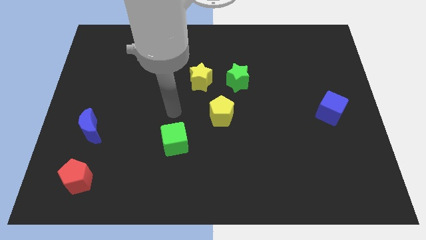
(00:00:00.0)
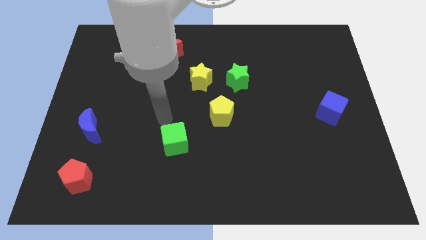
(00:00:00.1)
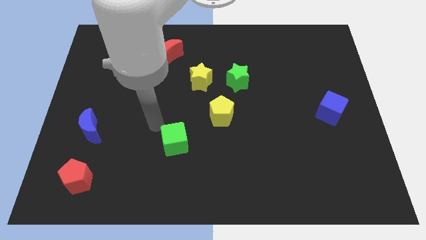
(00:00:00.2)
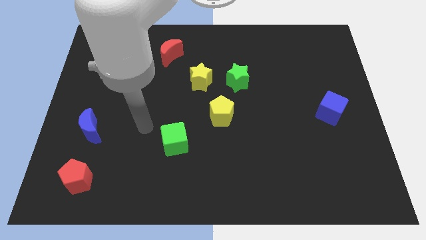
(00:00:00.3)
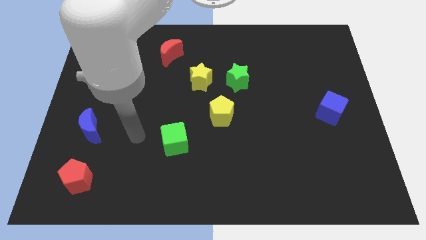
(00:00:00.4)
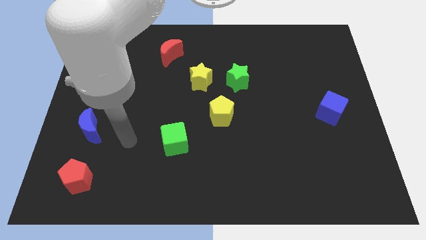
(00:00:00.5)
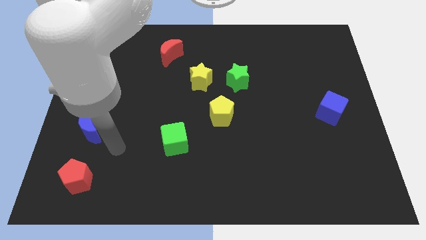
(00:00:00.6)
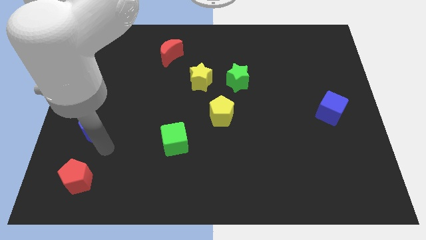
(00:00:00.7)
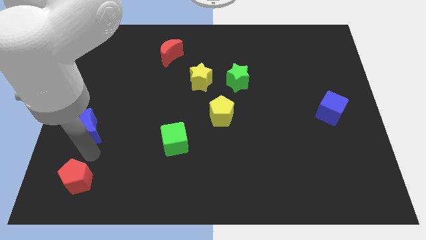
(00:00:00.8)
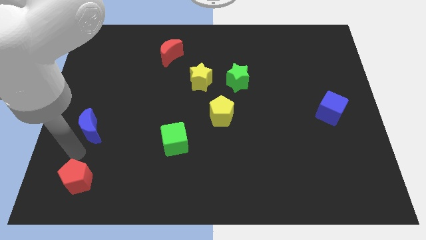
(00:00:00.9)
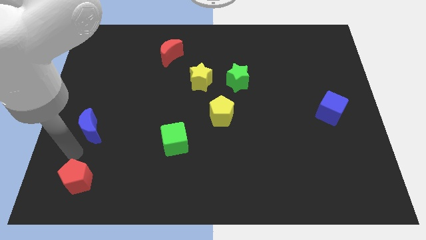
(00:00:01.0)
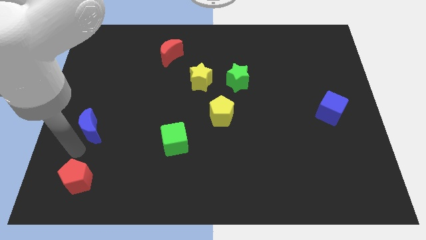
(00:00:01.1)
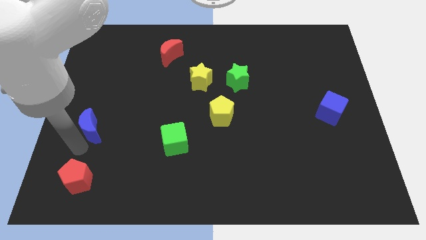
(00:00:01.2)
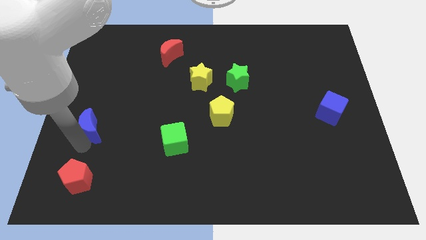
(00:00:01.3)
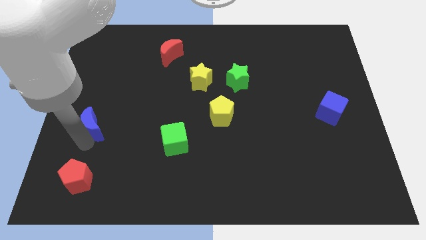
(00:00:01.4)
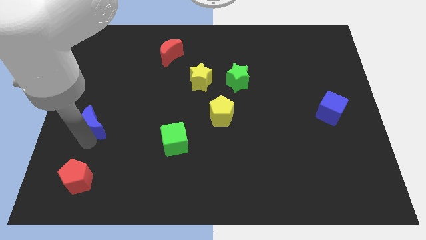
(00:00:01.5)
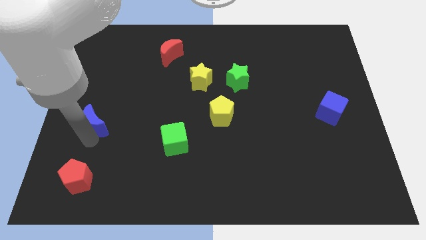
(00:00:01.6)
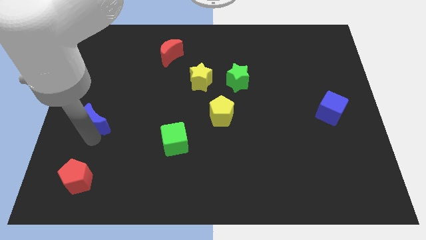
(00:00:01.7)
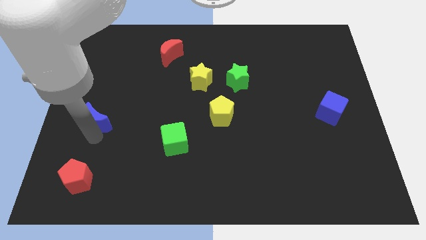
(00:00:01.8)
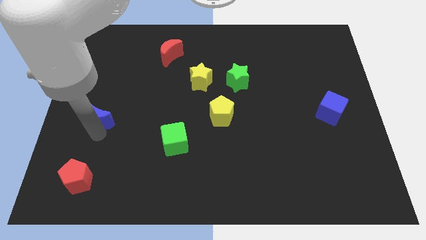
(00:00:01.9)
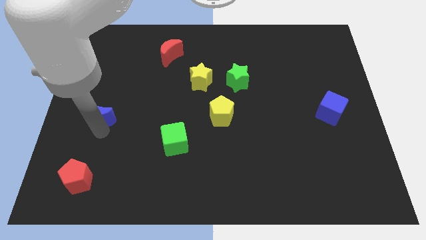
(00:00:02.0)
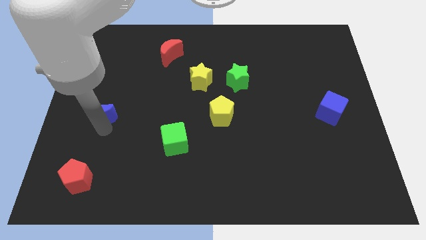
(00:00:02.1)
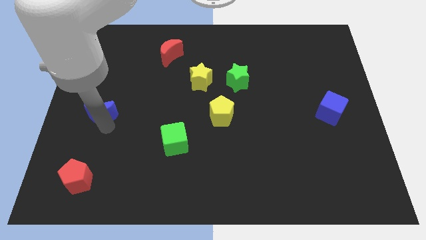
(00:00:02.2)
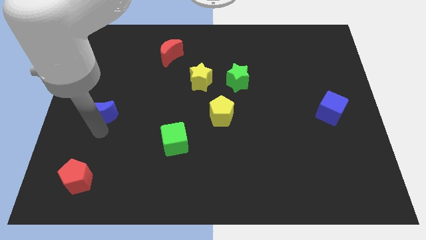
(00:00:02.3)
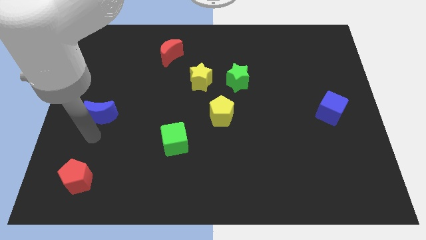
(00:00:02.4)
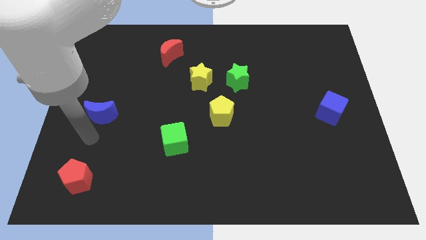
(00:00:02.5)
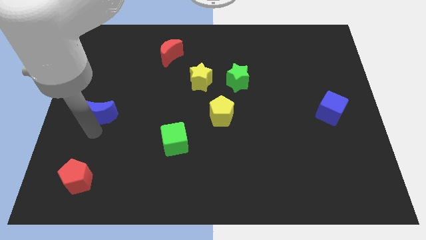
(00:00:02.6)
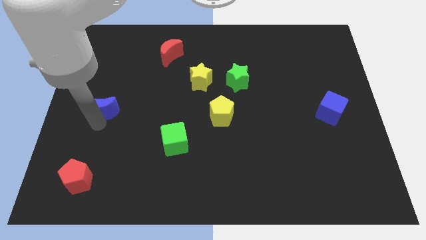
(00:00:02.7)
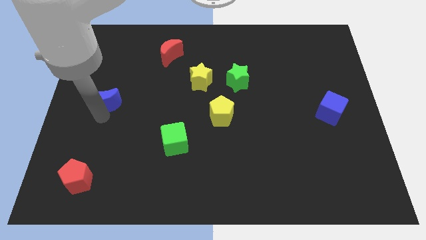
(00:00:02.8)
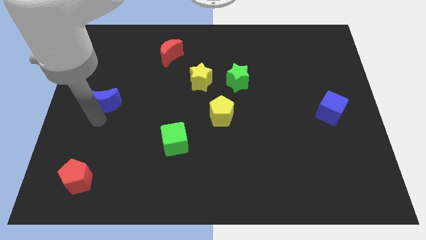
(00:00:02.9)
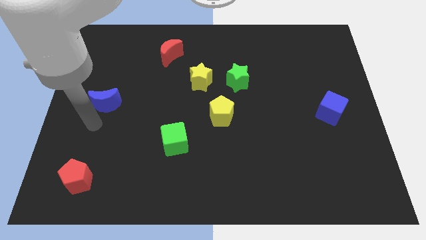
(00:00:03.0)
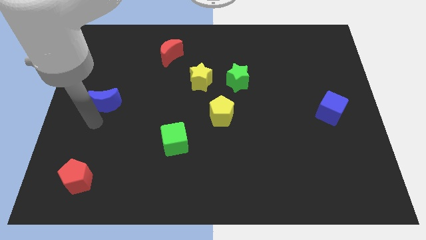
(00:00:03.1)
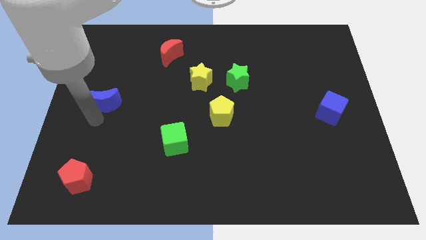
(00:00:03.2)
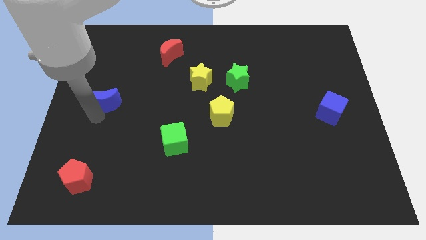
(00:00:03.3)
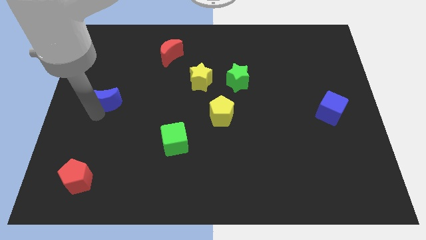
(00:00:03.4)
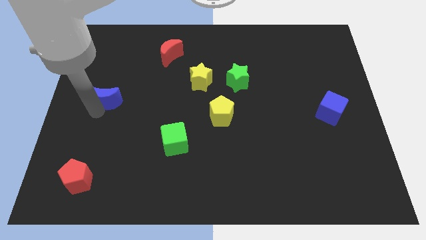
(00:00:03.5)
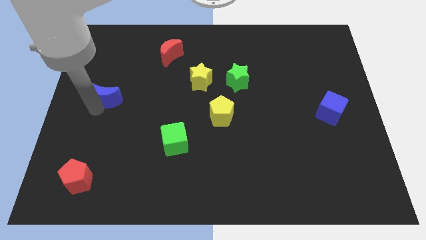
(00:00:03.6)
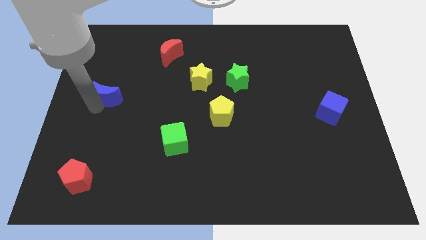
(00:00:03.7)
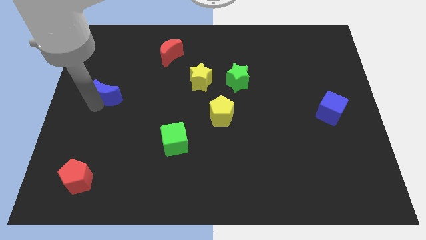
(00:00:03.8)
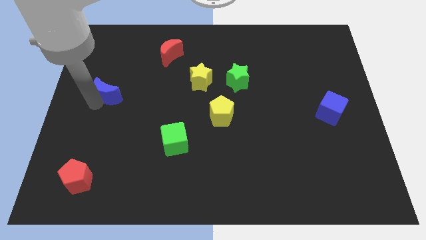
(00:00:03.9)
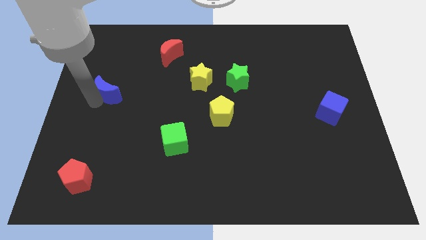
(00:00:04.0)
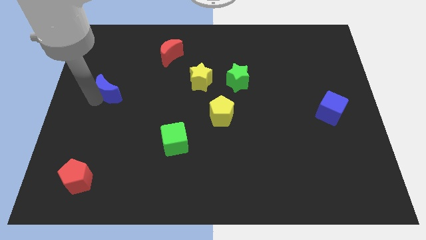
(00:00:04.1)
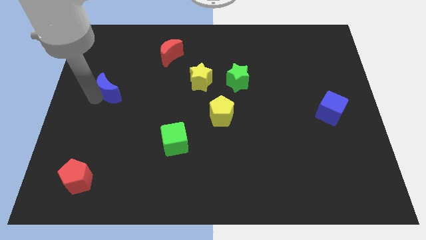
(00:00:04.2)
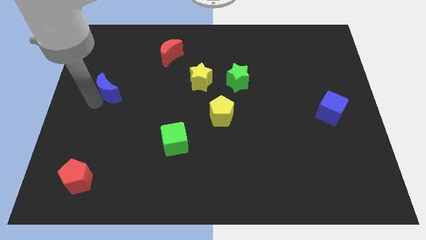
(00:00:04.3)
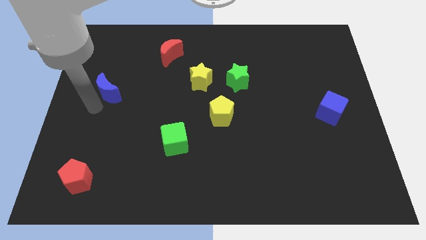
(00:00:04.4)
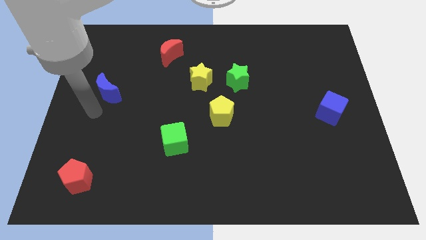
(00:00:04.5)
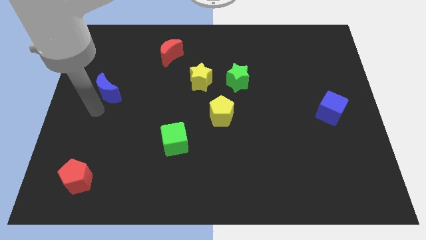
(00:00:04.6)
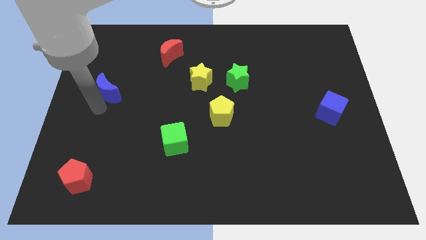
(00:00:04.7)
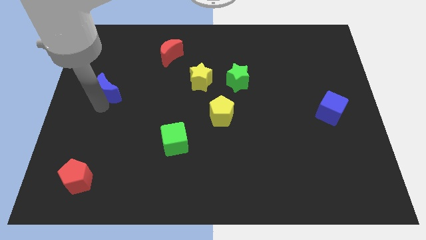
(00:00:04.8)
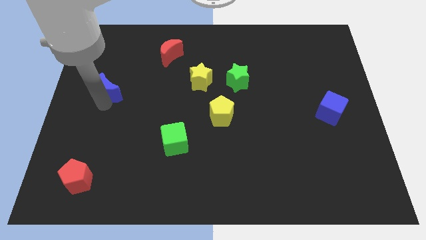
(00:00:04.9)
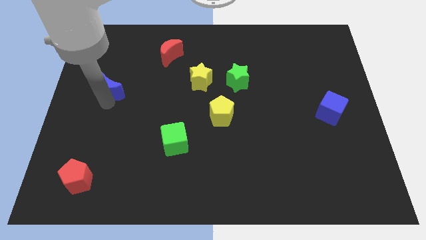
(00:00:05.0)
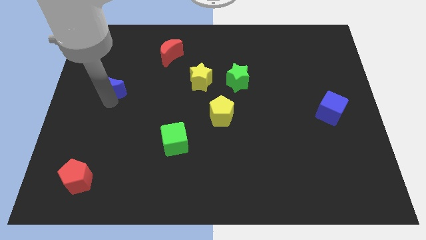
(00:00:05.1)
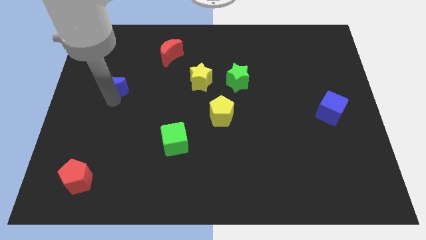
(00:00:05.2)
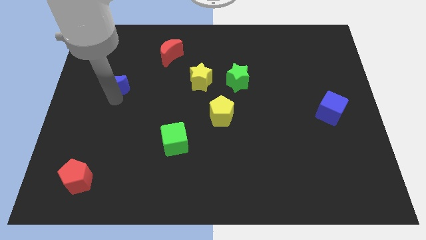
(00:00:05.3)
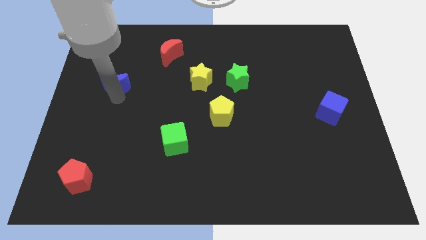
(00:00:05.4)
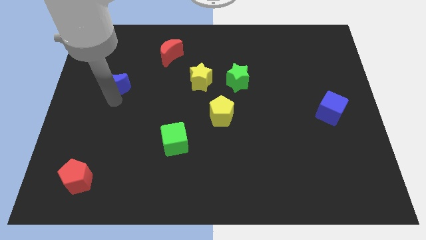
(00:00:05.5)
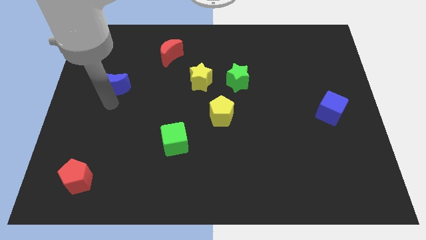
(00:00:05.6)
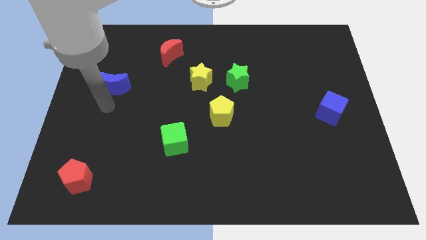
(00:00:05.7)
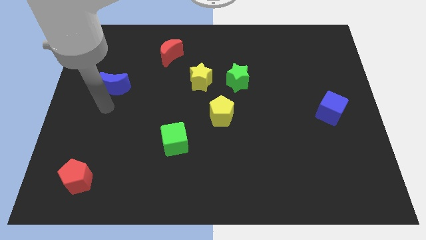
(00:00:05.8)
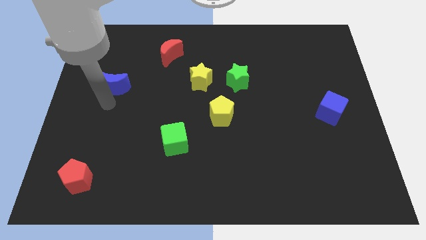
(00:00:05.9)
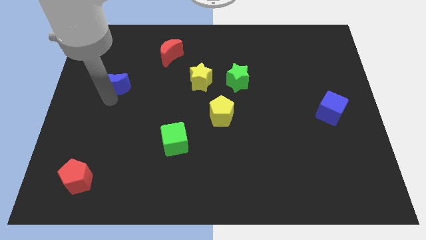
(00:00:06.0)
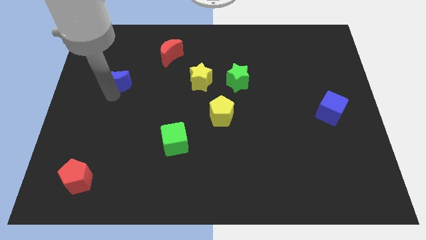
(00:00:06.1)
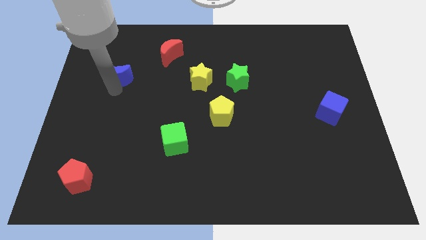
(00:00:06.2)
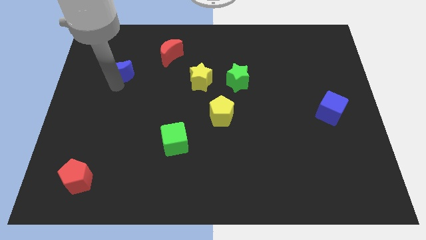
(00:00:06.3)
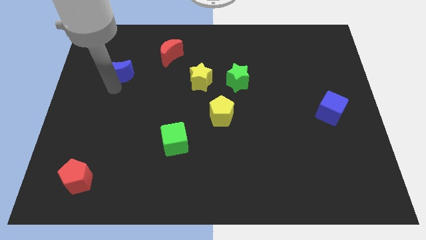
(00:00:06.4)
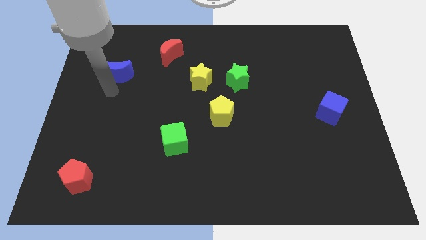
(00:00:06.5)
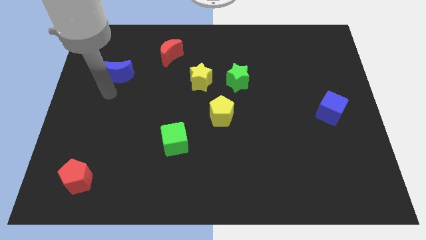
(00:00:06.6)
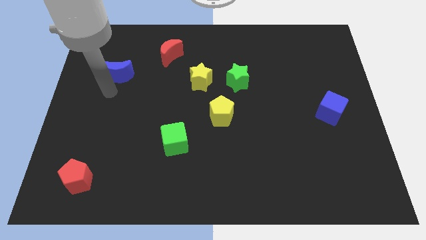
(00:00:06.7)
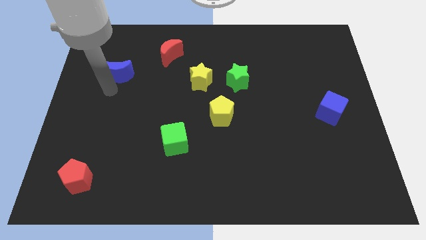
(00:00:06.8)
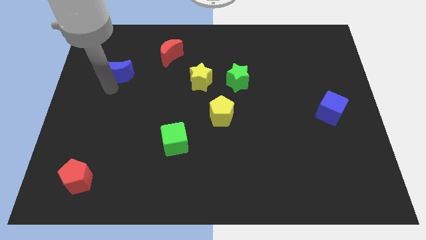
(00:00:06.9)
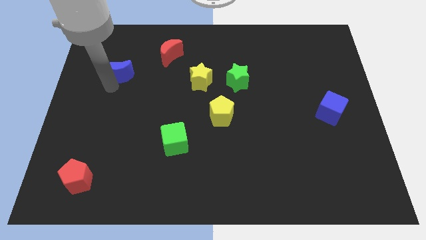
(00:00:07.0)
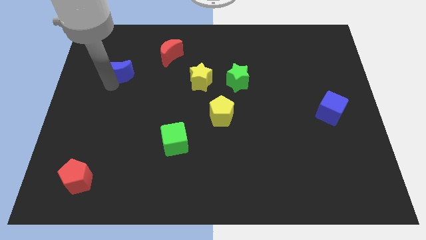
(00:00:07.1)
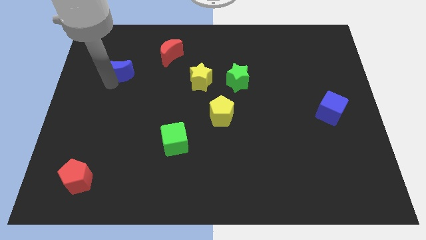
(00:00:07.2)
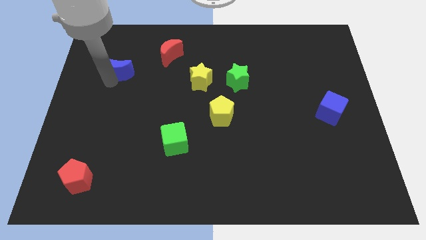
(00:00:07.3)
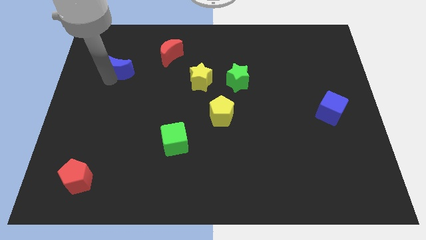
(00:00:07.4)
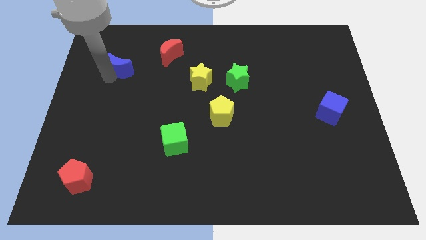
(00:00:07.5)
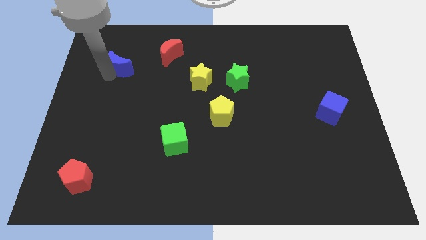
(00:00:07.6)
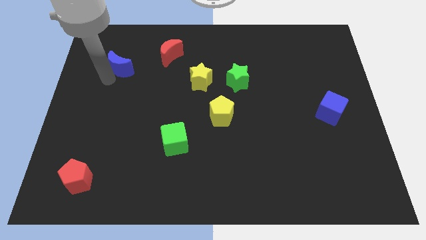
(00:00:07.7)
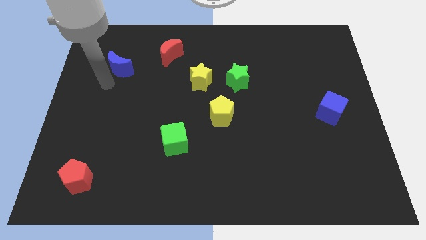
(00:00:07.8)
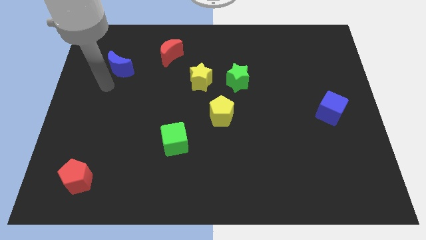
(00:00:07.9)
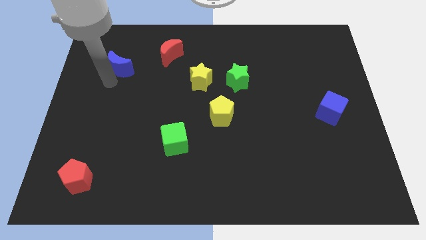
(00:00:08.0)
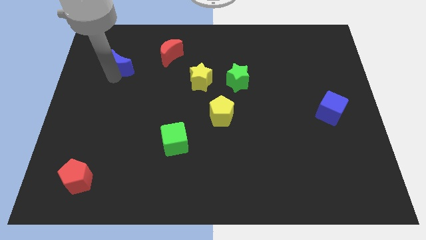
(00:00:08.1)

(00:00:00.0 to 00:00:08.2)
move the blue moon to the left side of the red moon
